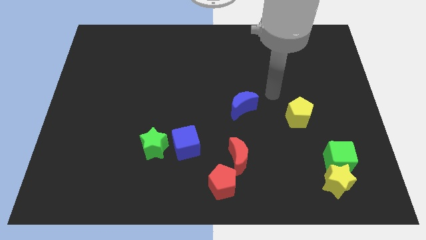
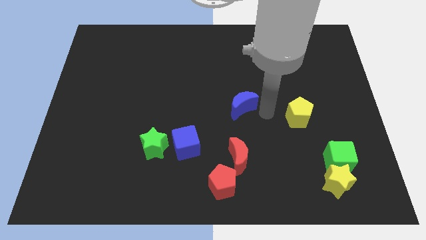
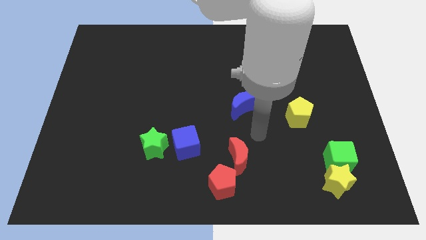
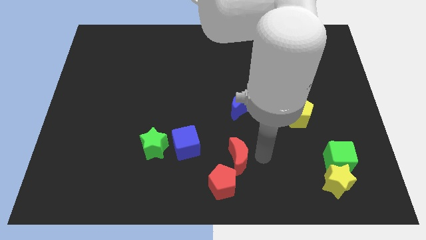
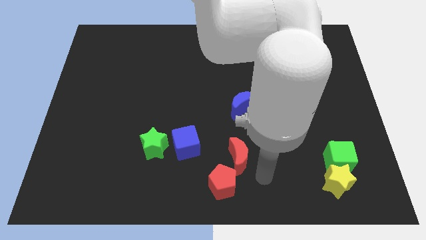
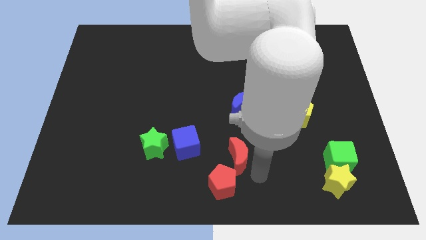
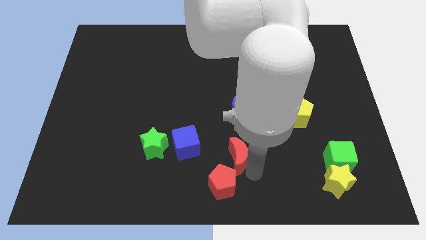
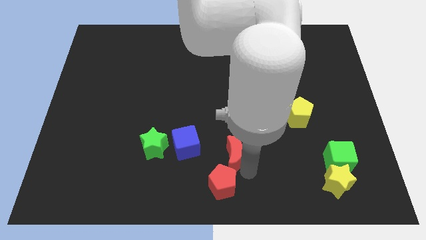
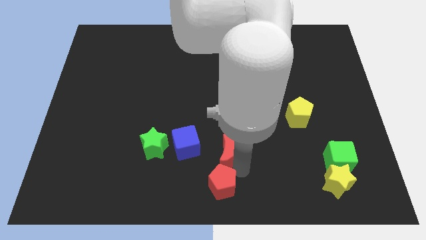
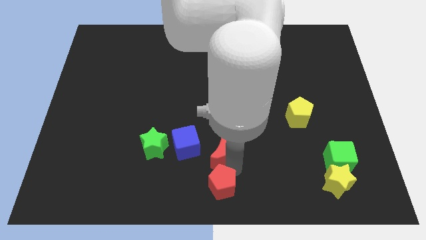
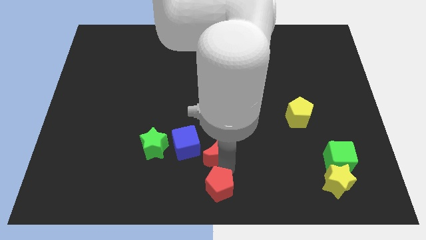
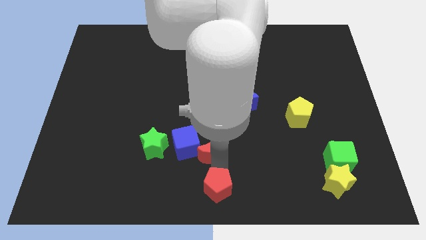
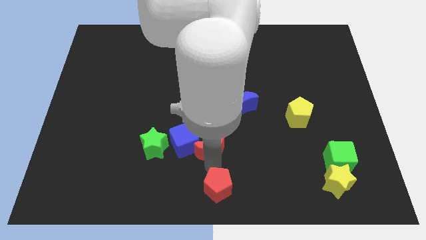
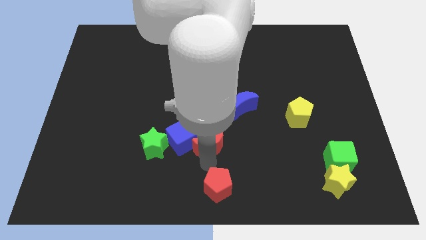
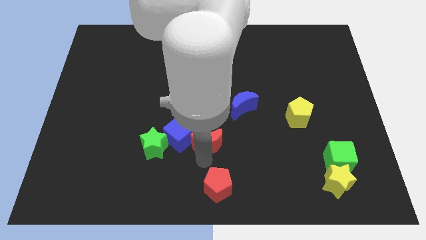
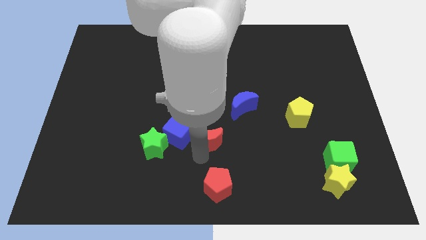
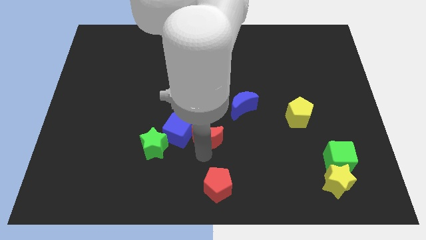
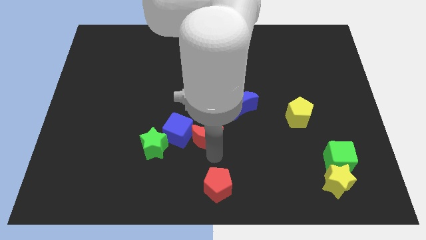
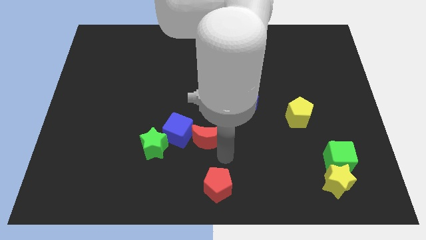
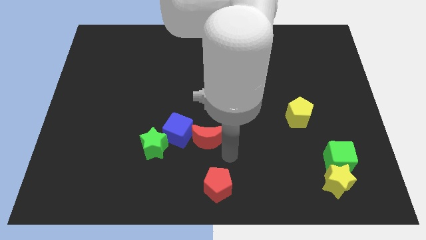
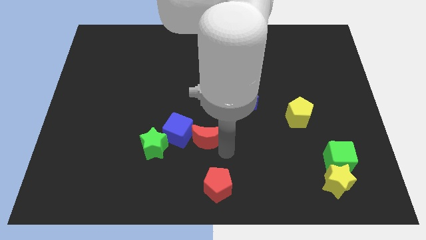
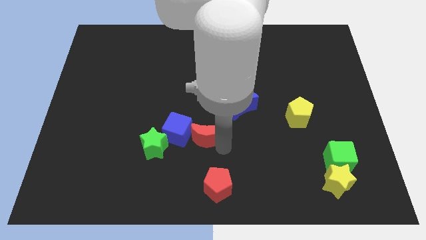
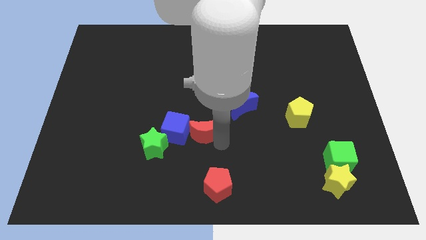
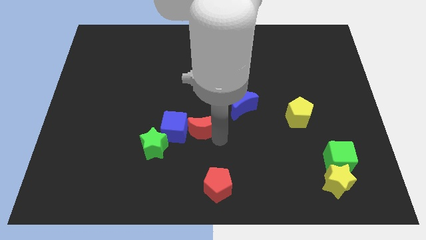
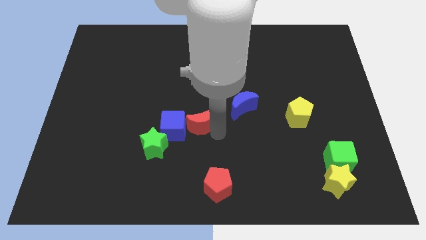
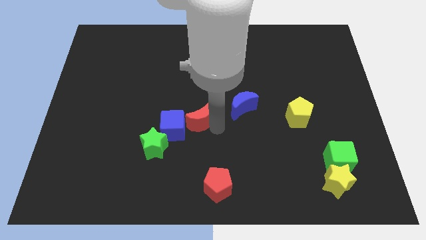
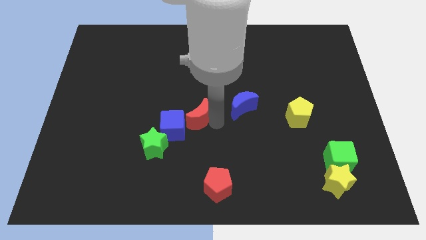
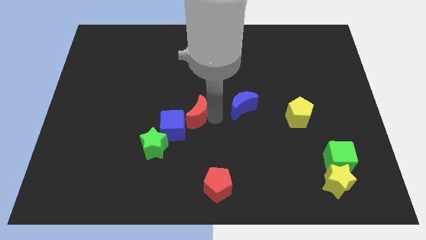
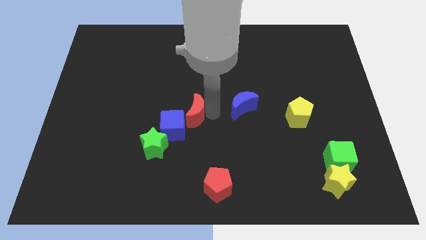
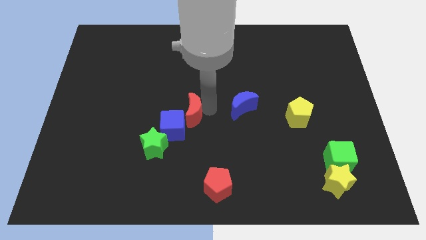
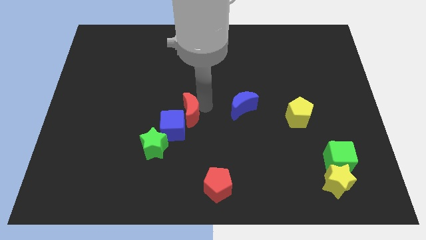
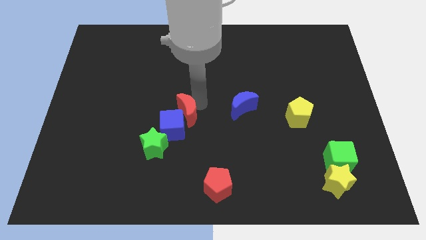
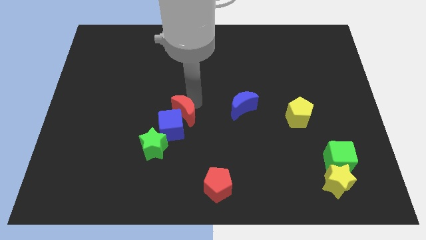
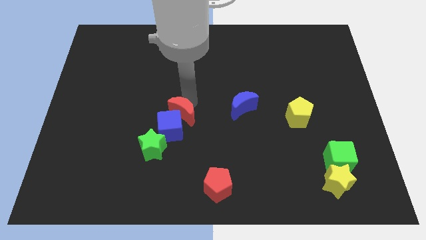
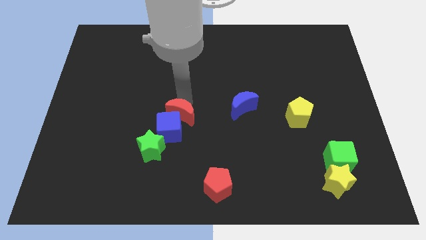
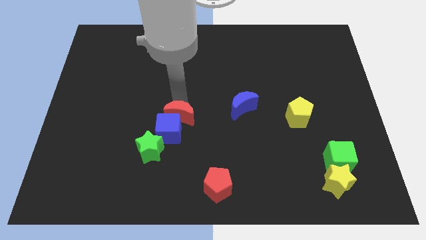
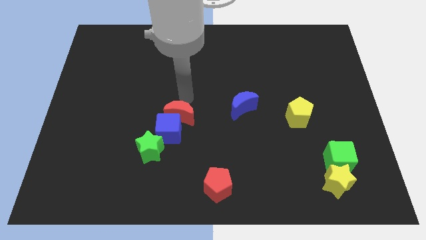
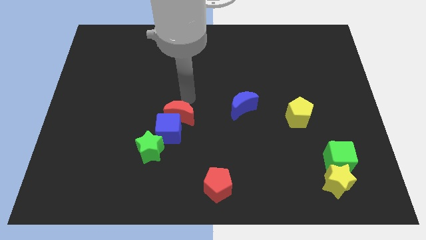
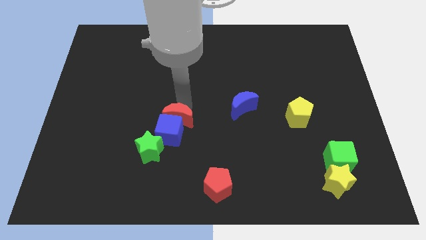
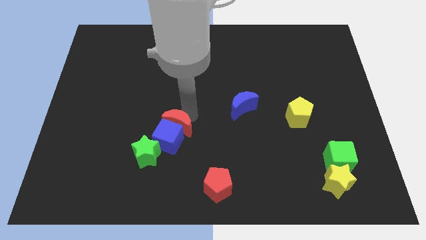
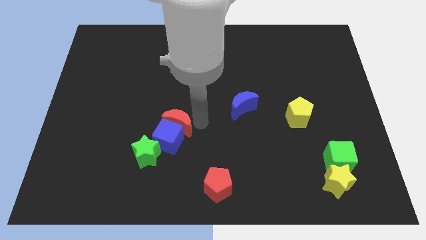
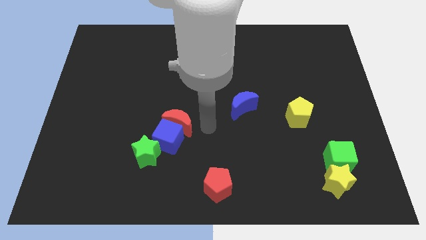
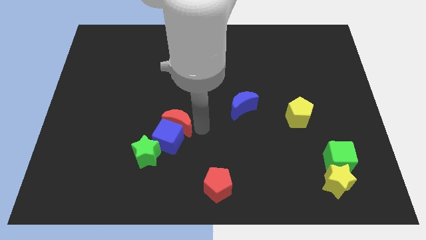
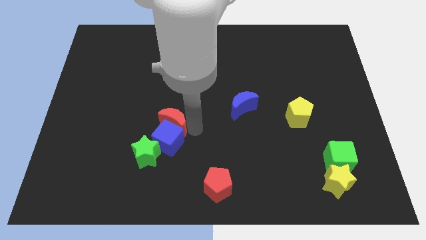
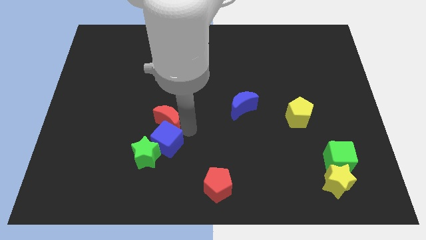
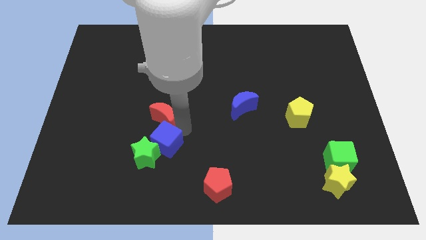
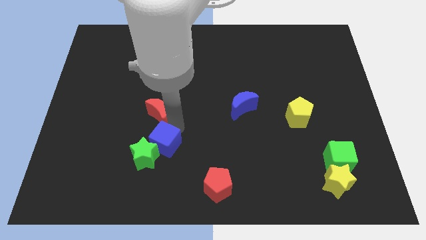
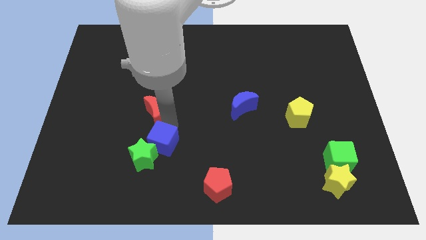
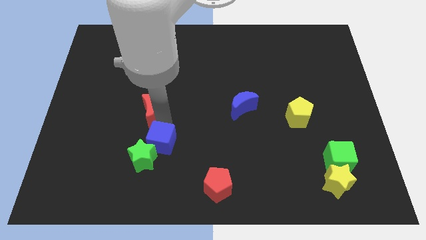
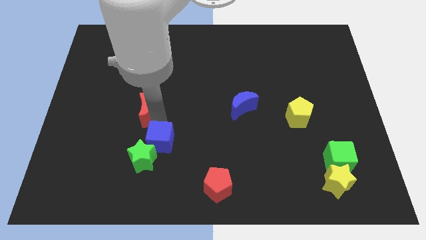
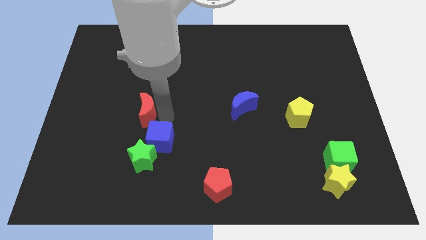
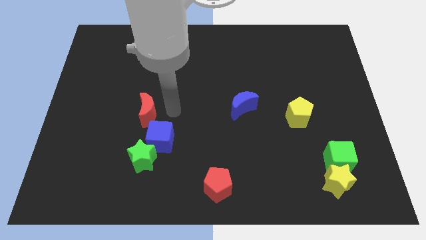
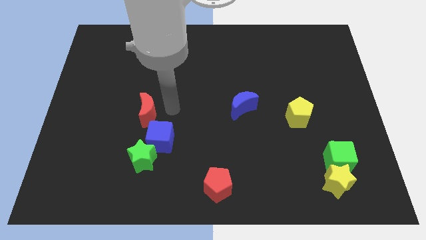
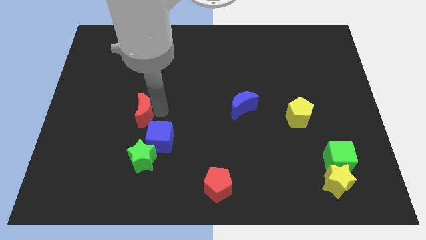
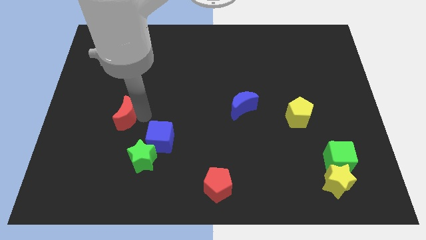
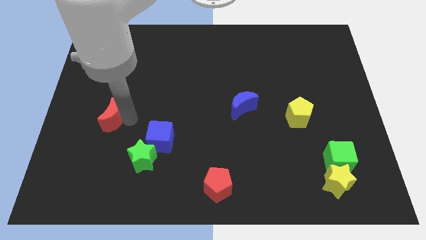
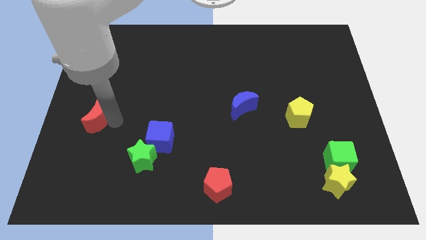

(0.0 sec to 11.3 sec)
push the red moon to the center left

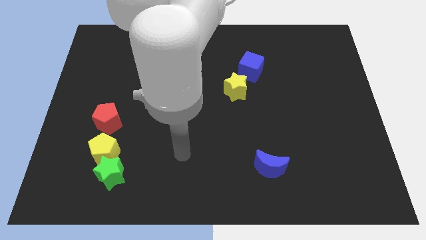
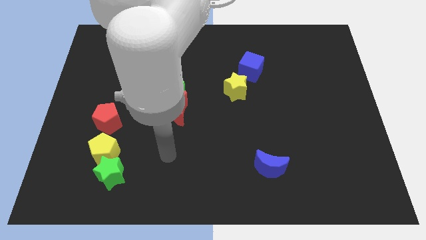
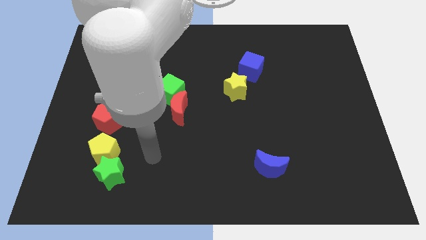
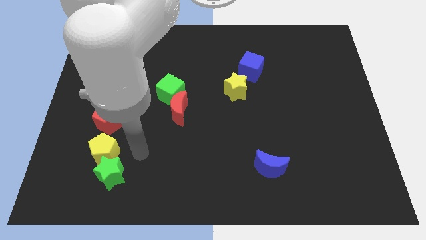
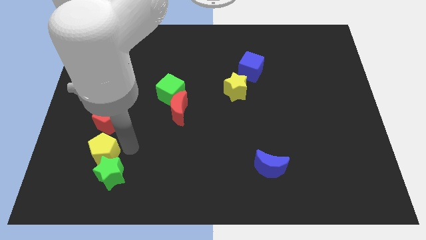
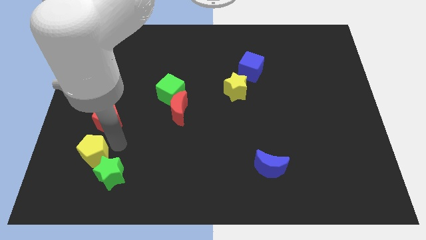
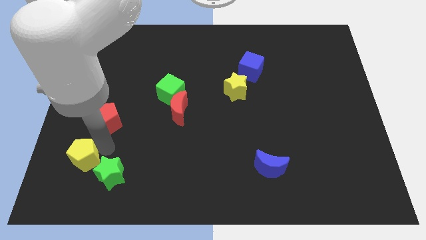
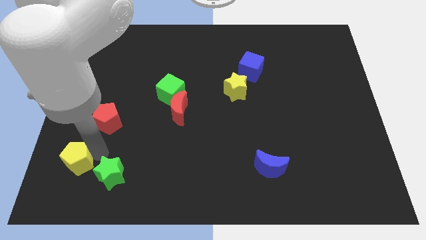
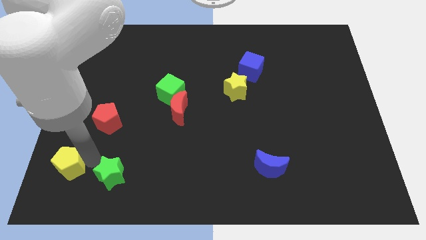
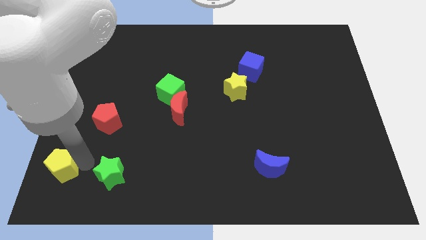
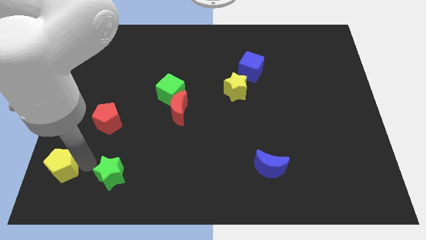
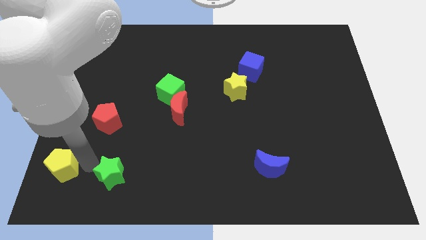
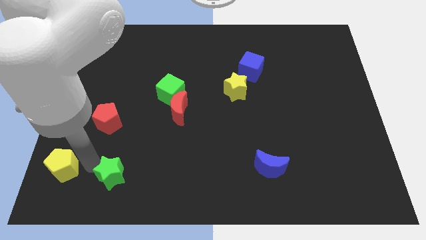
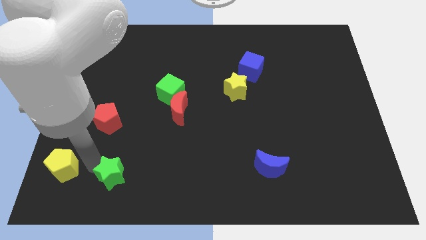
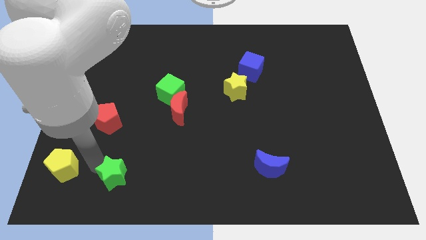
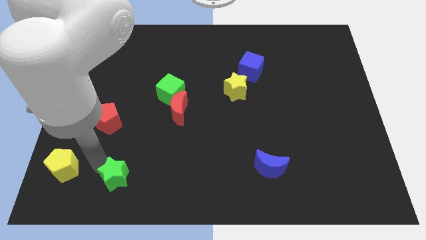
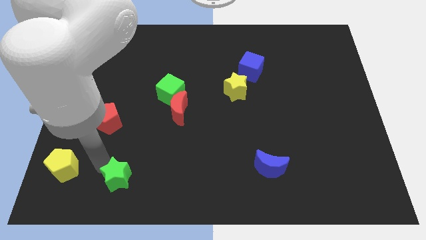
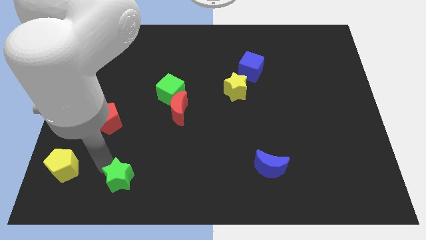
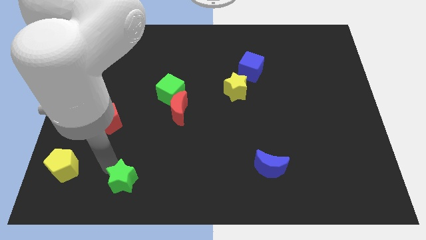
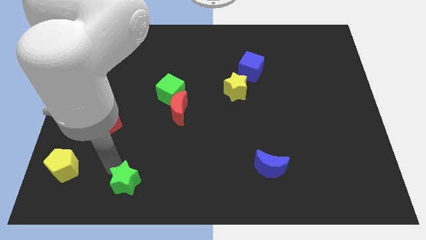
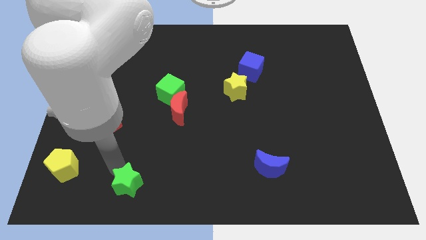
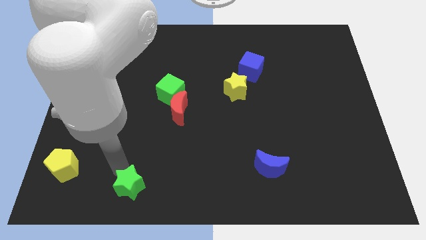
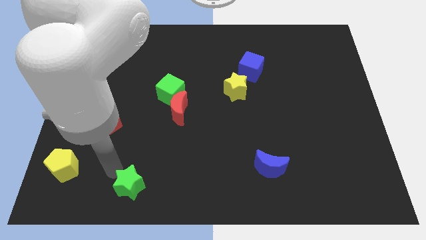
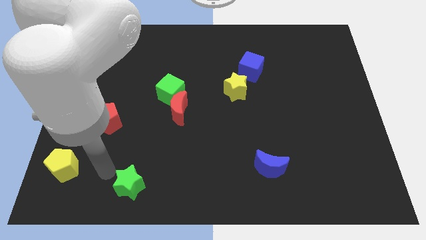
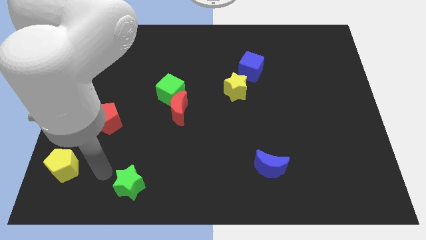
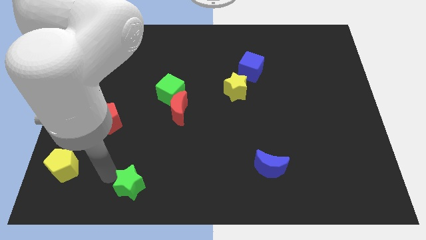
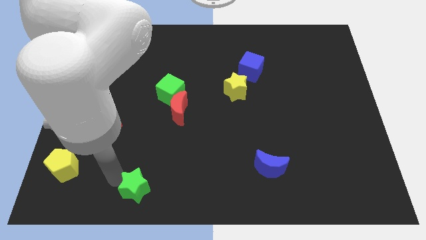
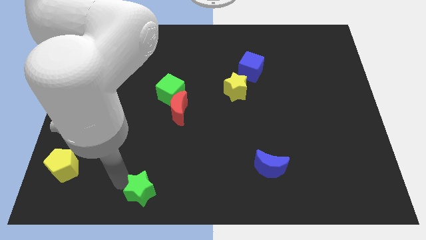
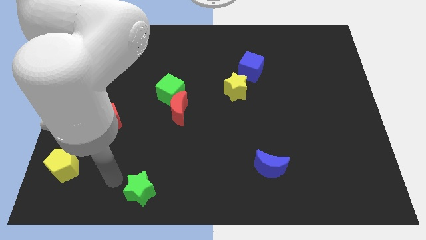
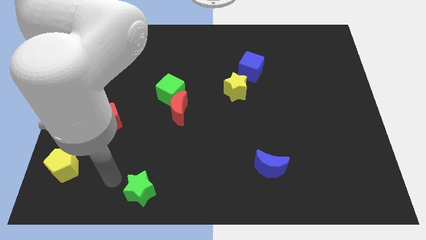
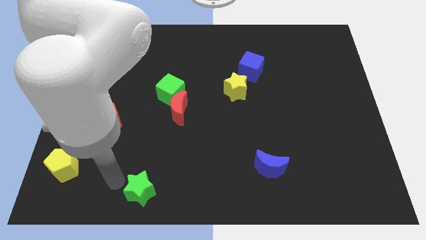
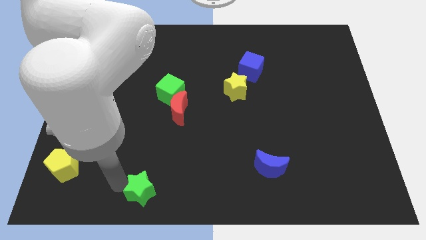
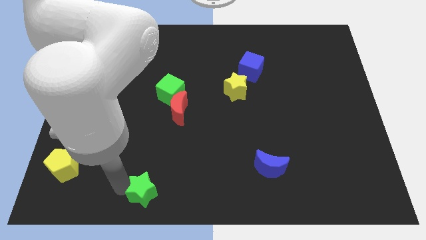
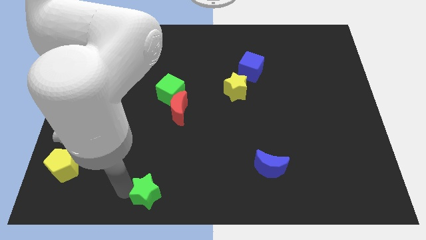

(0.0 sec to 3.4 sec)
put the green star to the bottom side
